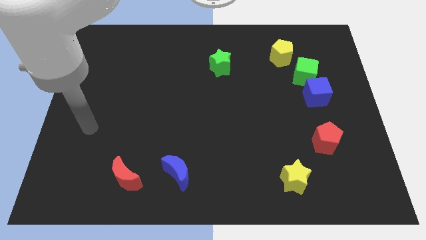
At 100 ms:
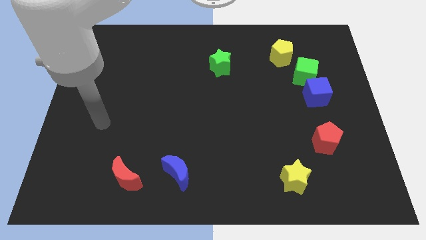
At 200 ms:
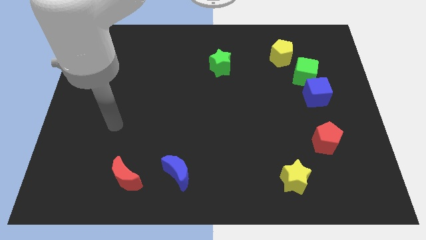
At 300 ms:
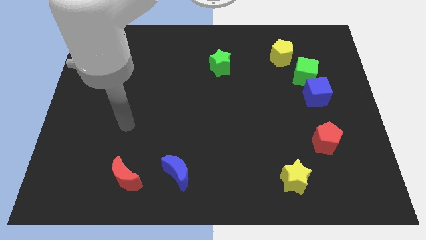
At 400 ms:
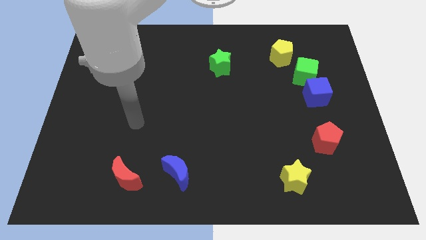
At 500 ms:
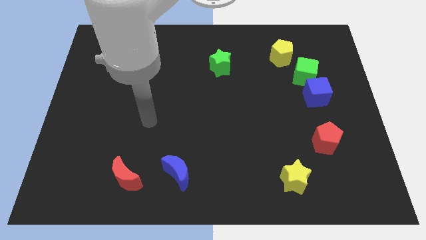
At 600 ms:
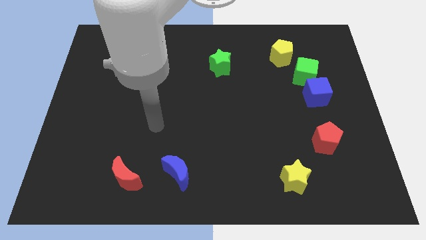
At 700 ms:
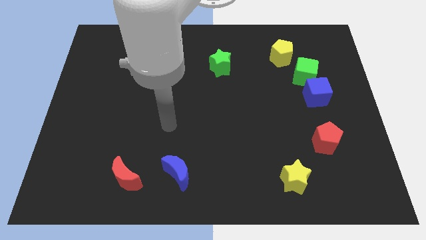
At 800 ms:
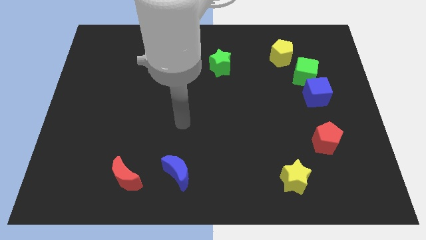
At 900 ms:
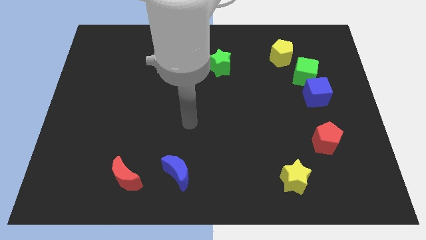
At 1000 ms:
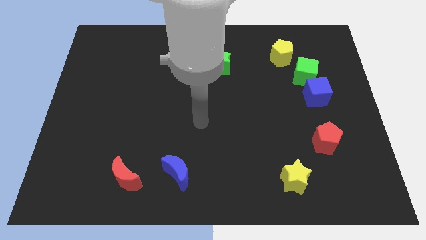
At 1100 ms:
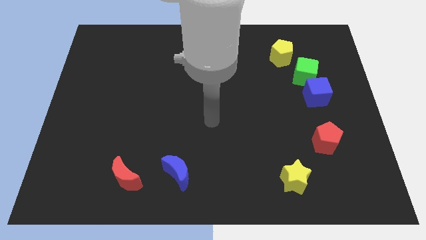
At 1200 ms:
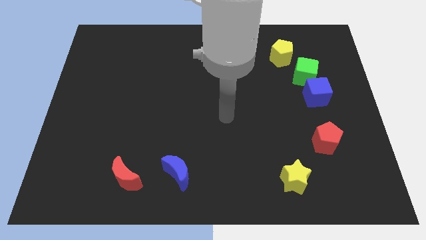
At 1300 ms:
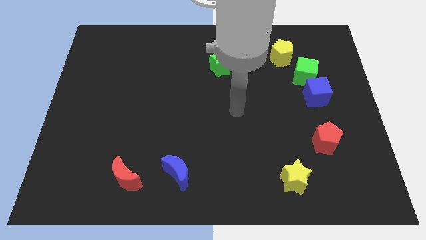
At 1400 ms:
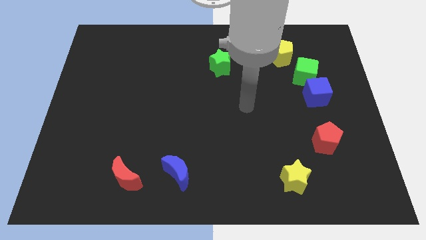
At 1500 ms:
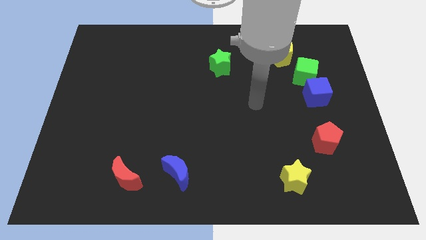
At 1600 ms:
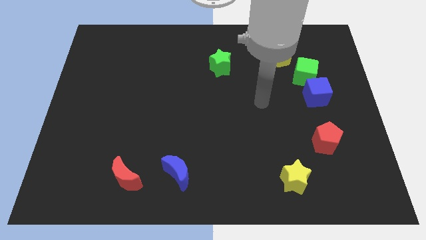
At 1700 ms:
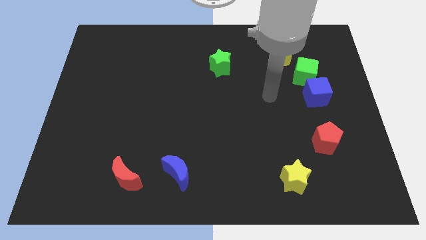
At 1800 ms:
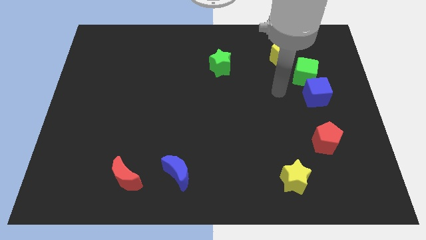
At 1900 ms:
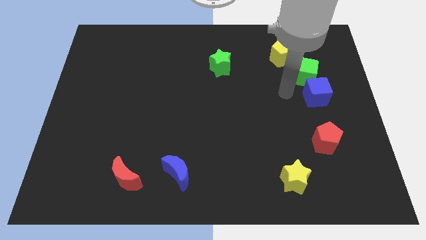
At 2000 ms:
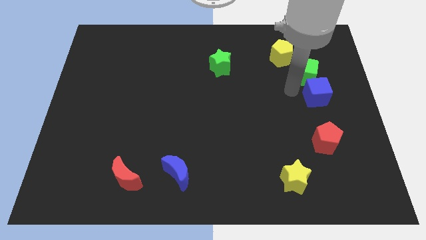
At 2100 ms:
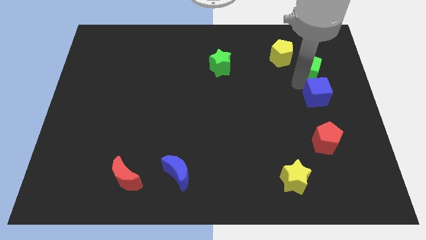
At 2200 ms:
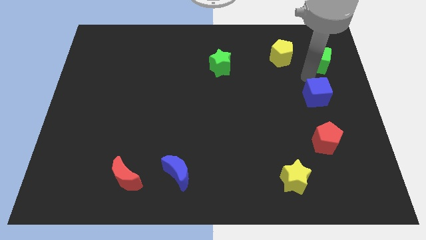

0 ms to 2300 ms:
separate the blue cube from the green cube

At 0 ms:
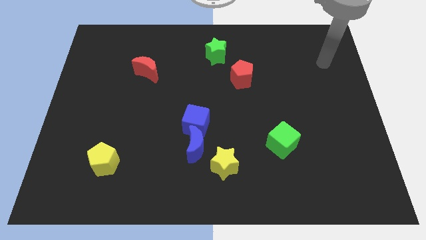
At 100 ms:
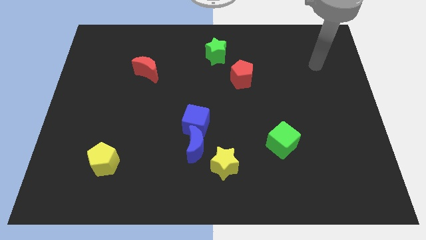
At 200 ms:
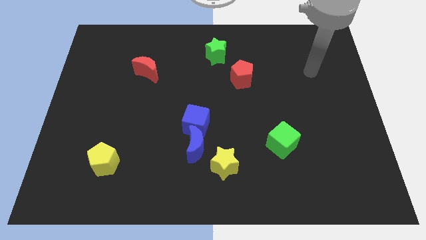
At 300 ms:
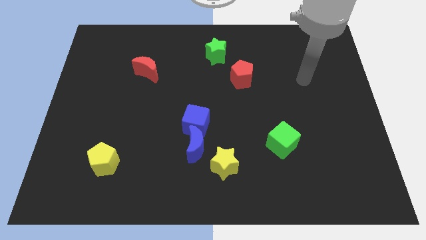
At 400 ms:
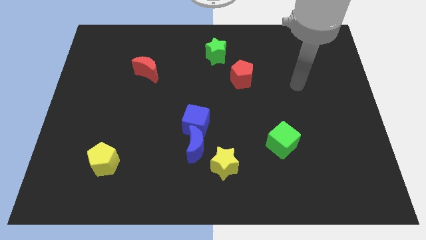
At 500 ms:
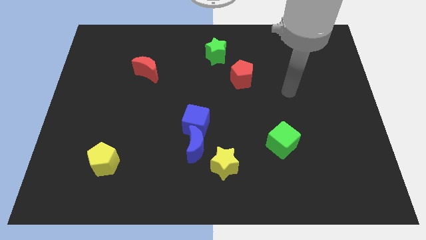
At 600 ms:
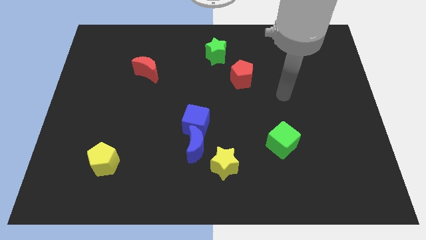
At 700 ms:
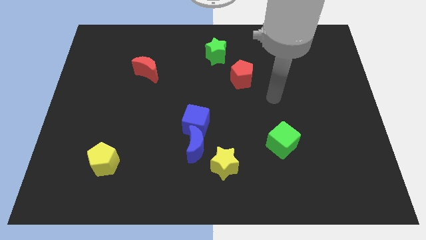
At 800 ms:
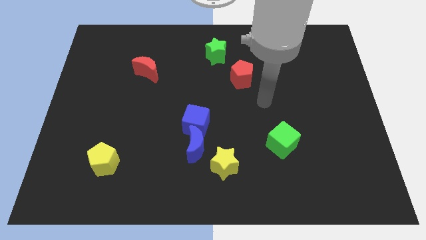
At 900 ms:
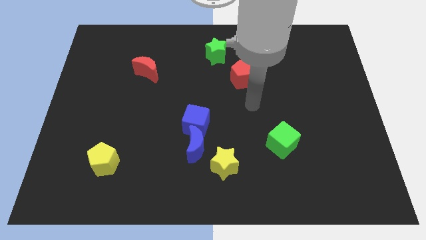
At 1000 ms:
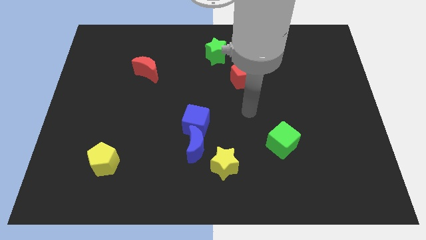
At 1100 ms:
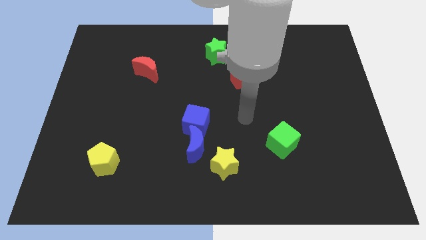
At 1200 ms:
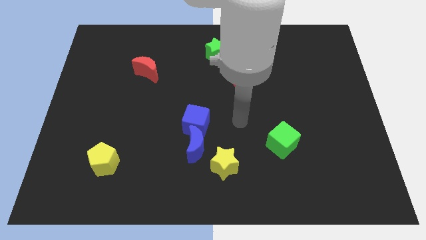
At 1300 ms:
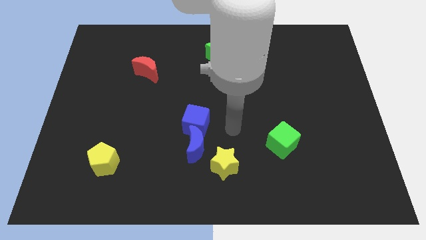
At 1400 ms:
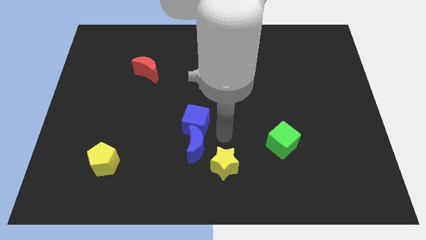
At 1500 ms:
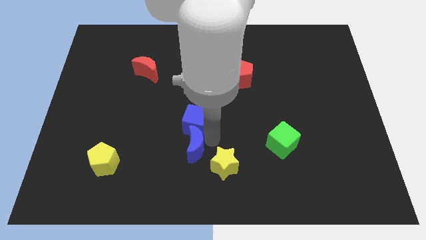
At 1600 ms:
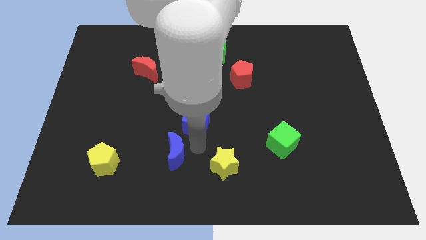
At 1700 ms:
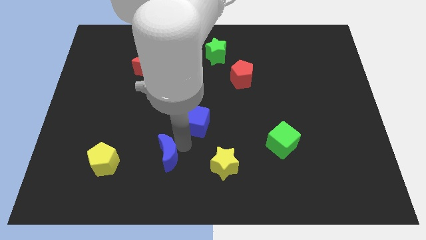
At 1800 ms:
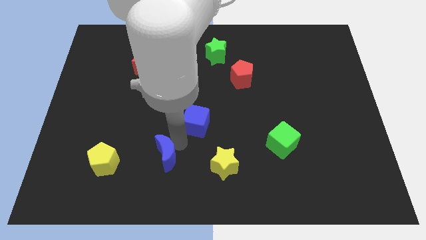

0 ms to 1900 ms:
pull the blue cube apart from the blue moon

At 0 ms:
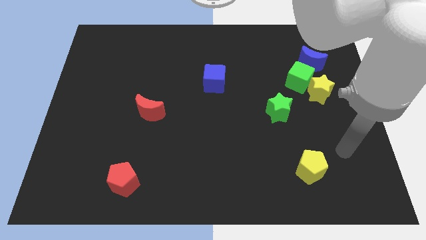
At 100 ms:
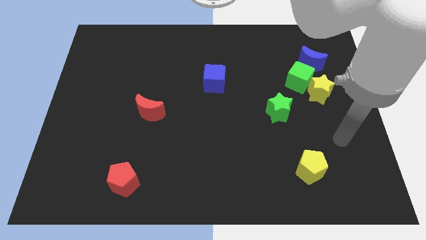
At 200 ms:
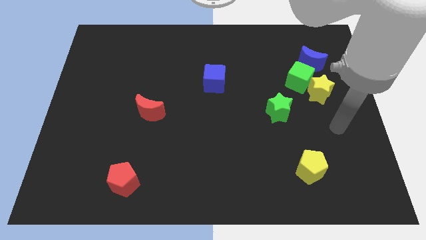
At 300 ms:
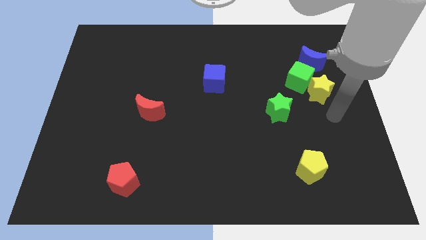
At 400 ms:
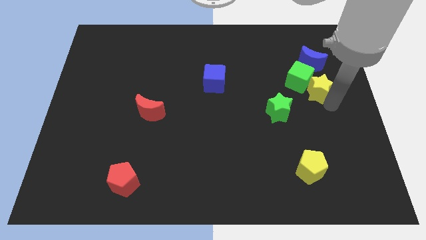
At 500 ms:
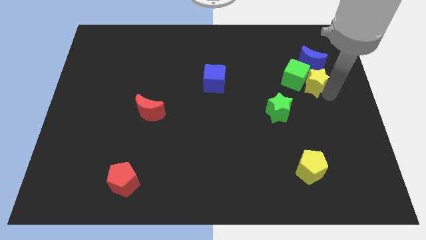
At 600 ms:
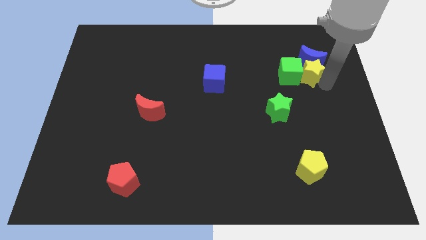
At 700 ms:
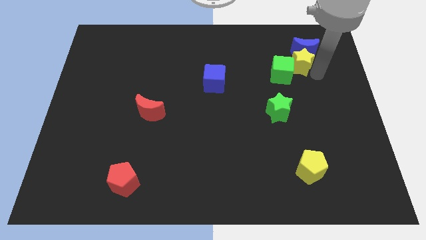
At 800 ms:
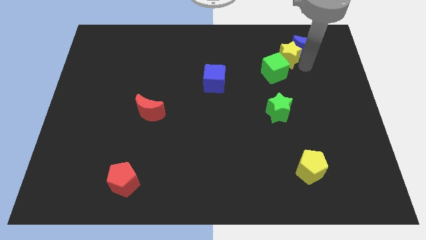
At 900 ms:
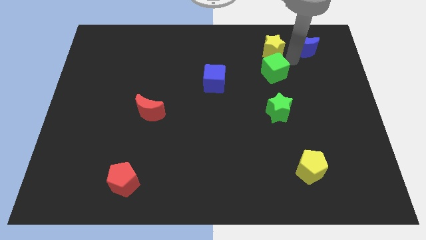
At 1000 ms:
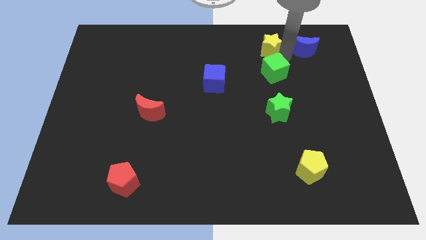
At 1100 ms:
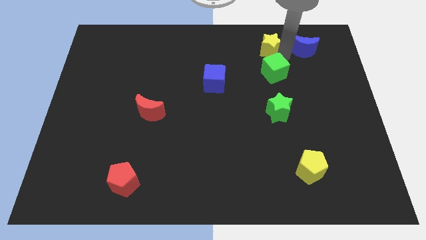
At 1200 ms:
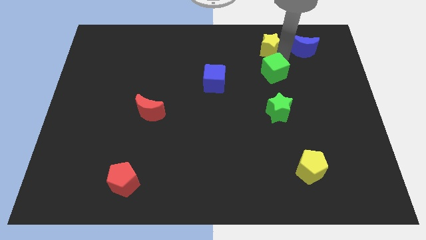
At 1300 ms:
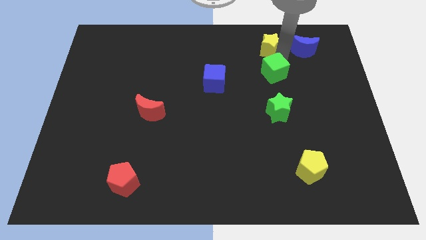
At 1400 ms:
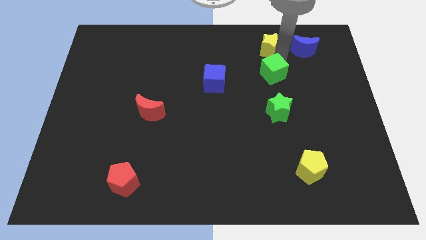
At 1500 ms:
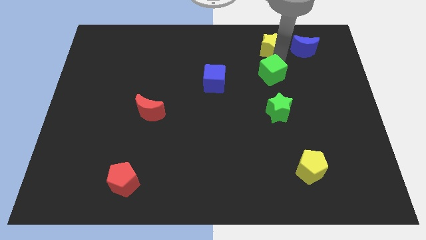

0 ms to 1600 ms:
move the green cube away from the yellow star and blue moon

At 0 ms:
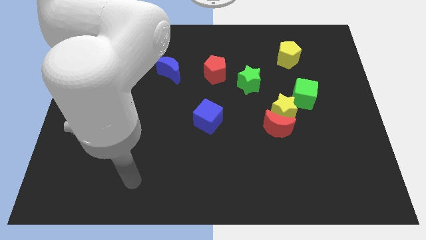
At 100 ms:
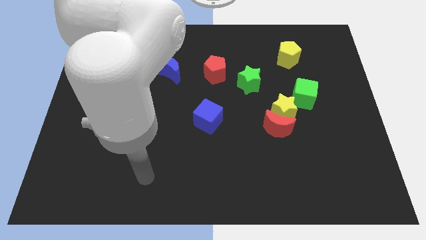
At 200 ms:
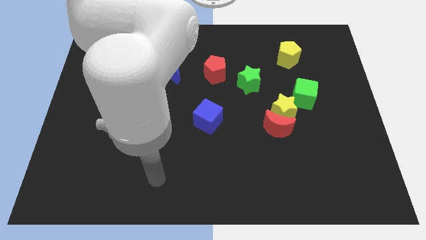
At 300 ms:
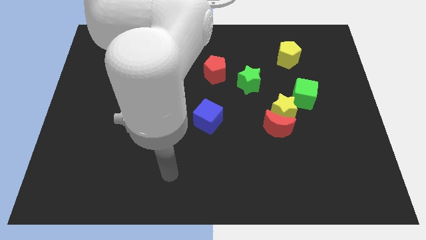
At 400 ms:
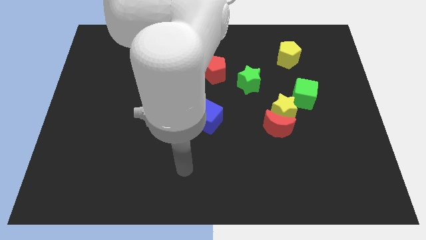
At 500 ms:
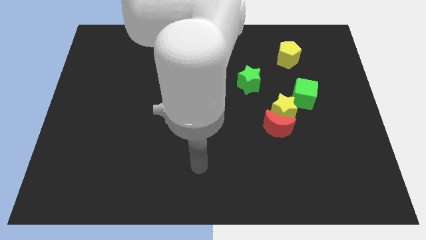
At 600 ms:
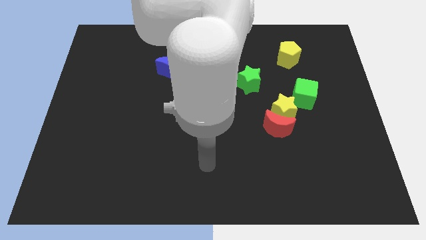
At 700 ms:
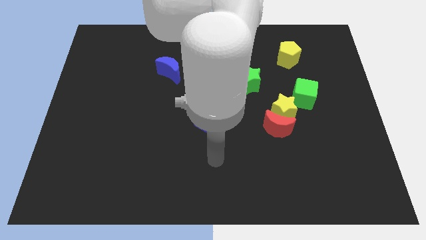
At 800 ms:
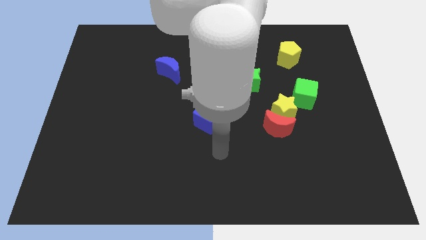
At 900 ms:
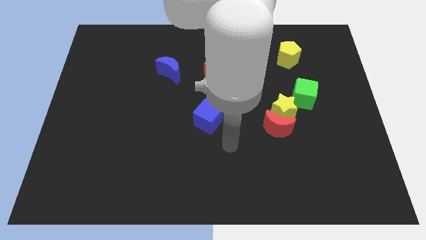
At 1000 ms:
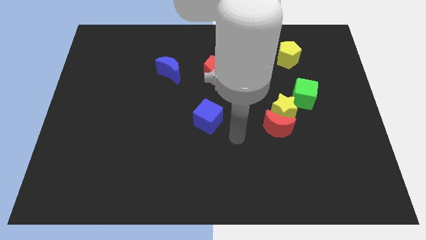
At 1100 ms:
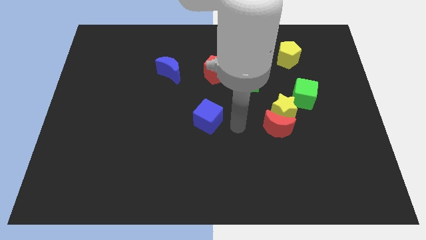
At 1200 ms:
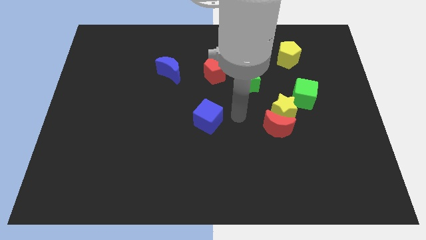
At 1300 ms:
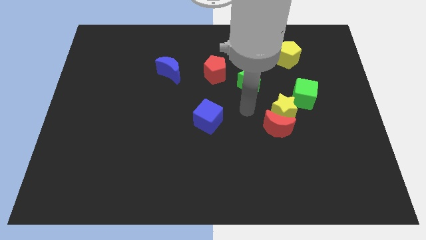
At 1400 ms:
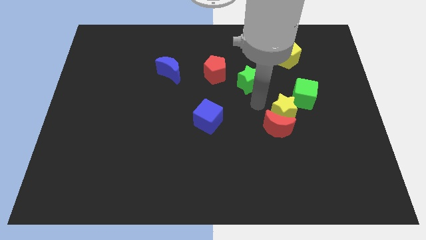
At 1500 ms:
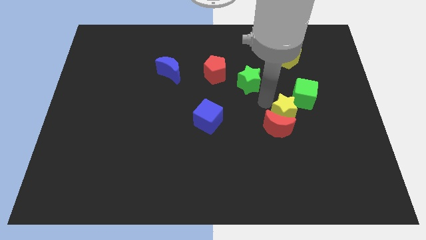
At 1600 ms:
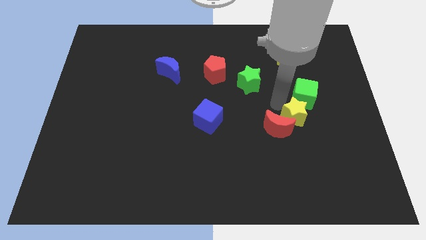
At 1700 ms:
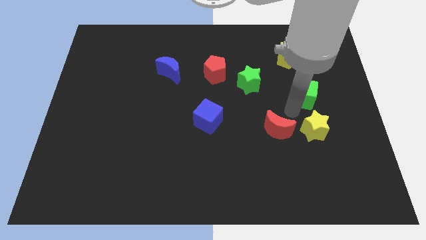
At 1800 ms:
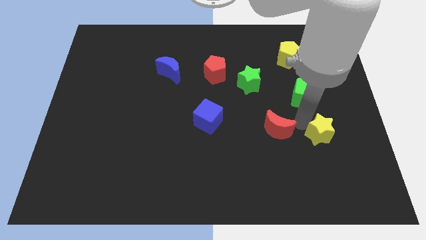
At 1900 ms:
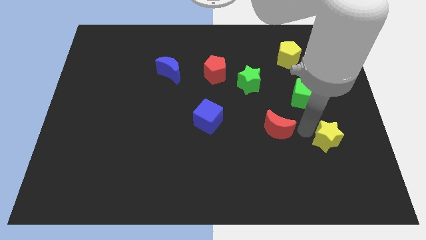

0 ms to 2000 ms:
move the red moon away from the yellow star

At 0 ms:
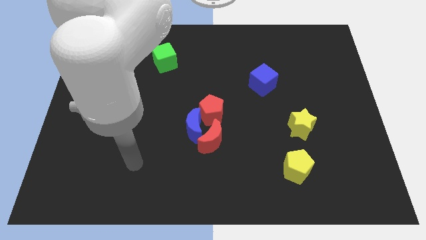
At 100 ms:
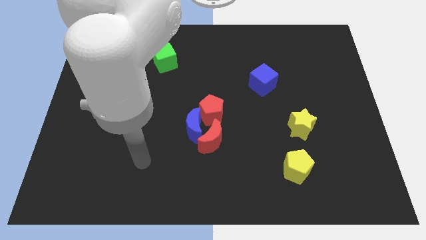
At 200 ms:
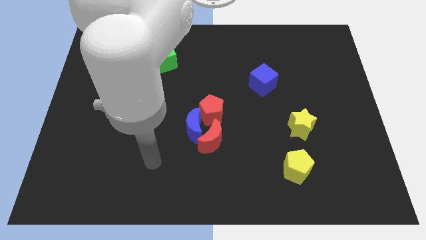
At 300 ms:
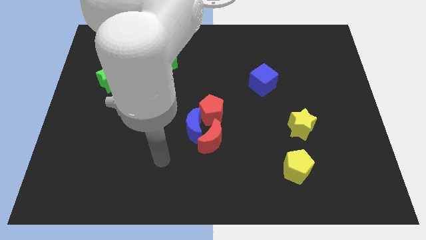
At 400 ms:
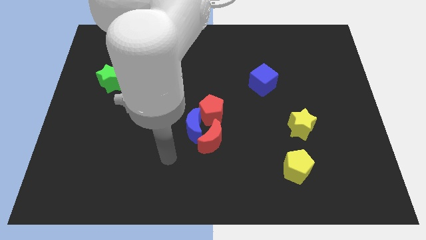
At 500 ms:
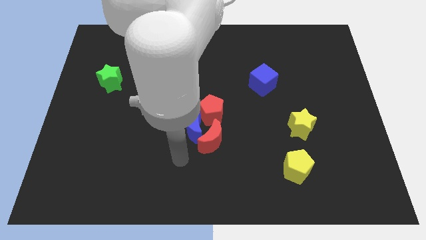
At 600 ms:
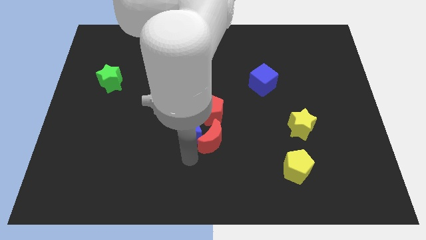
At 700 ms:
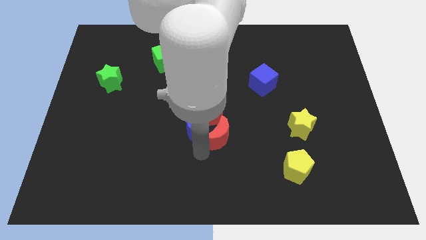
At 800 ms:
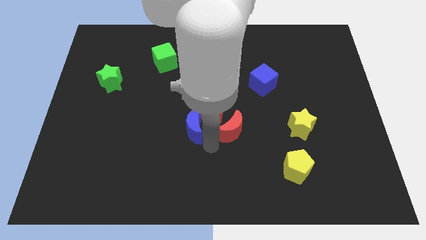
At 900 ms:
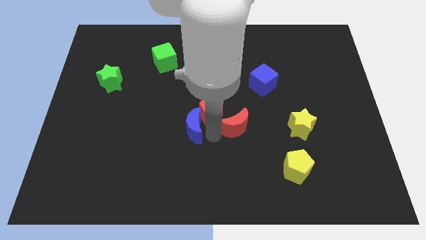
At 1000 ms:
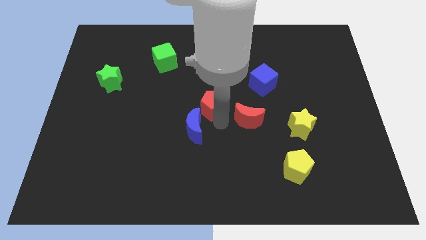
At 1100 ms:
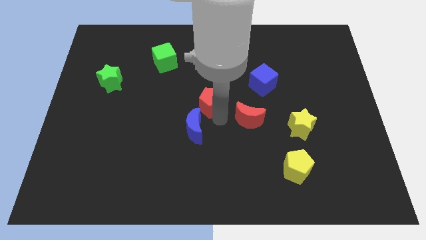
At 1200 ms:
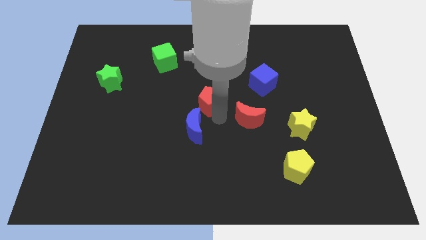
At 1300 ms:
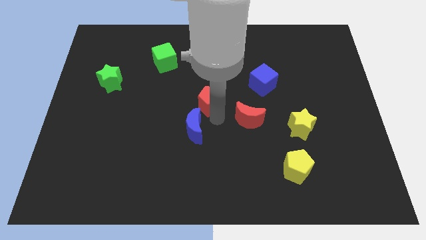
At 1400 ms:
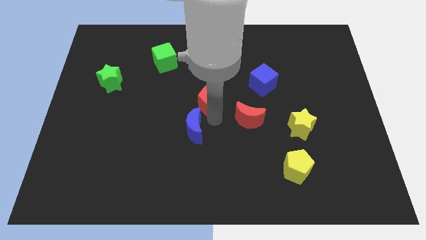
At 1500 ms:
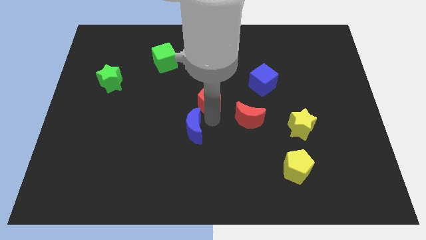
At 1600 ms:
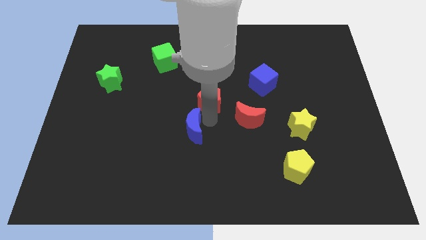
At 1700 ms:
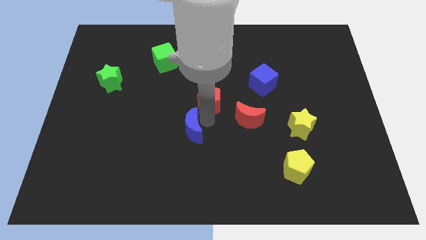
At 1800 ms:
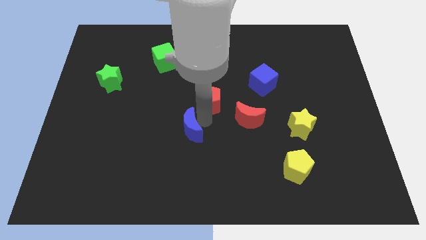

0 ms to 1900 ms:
move the blue moon away from the red moon and red pentagon
